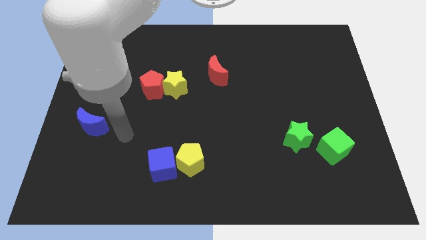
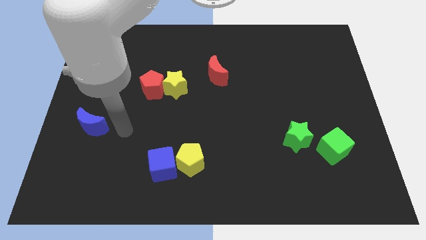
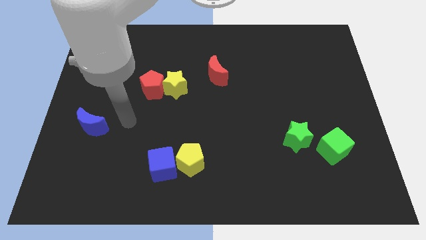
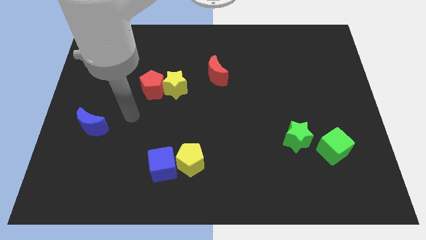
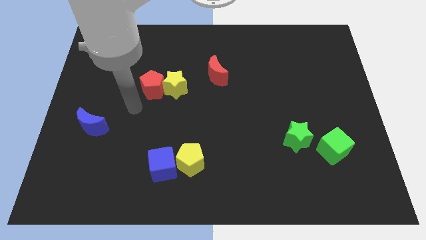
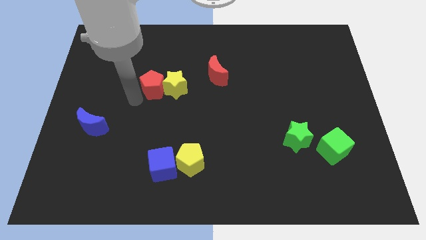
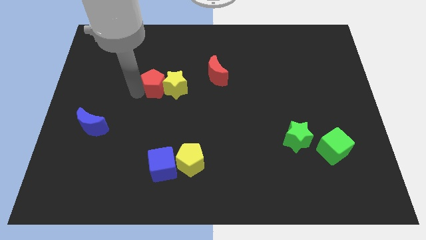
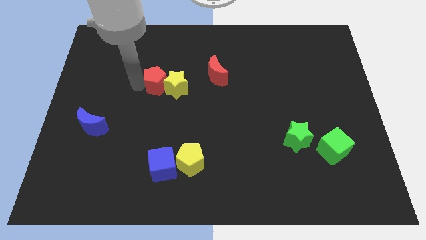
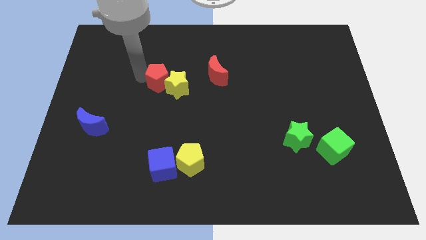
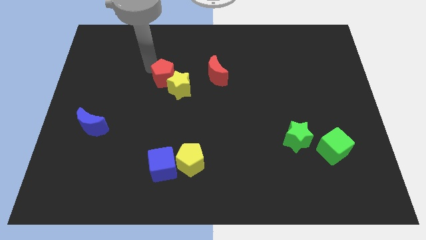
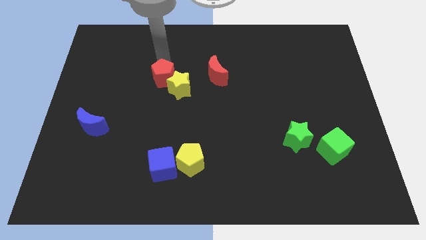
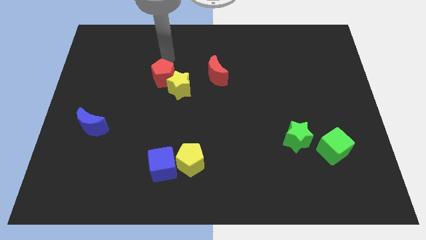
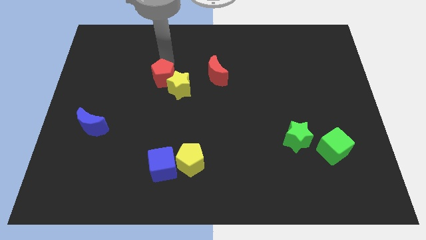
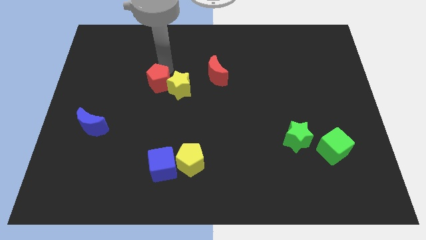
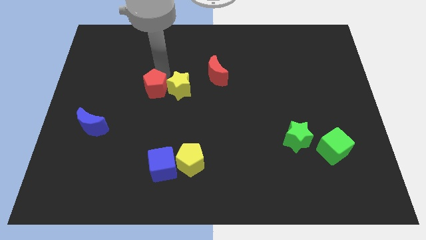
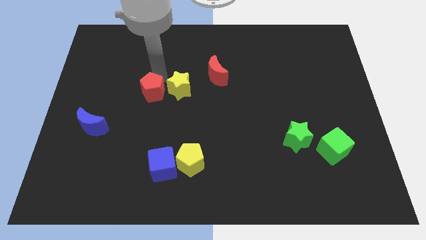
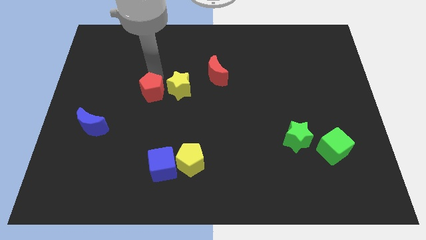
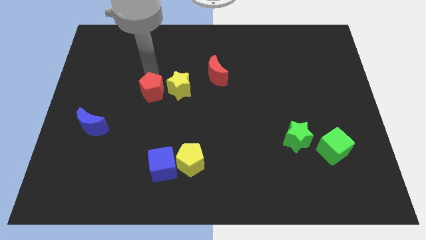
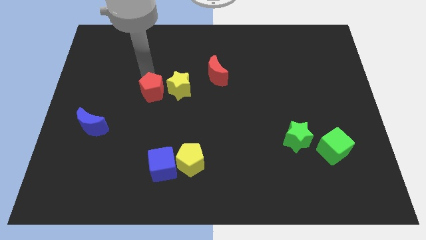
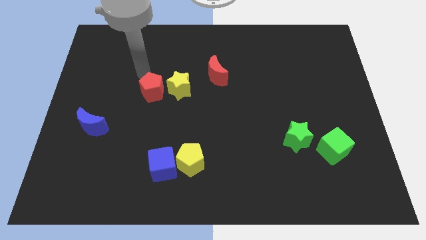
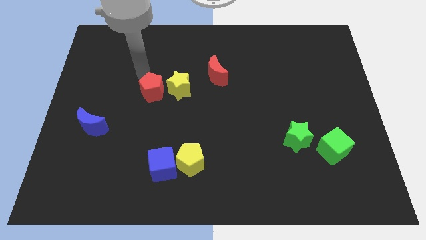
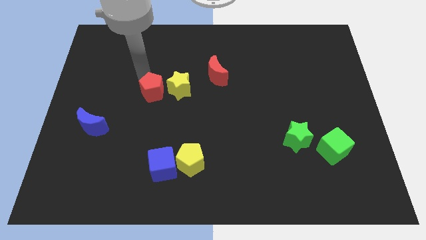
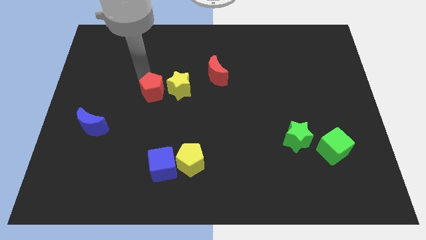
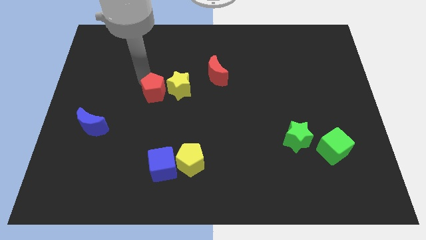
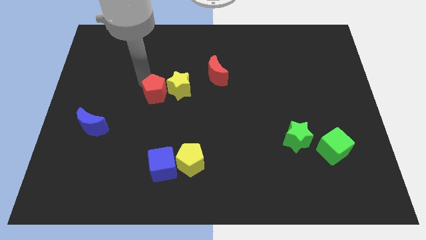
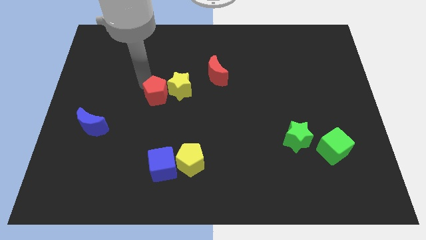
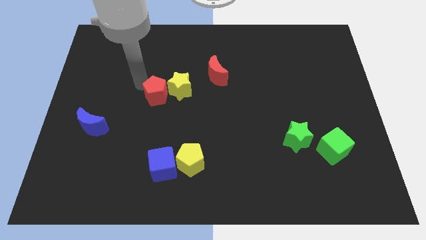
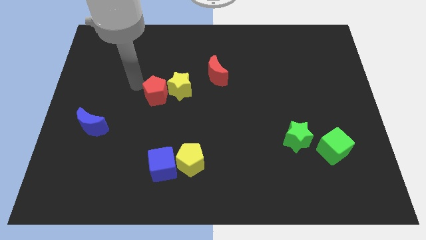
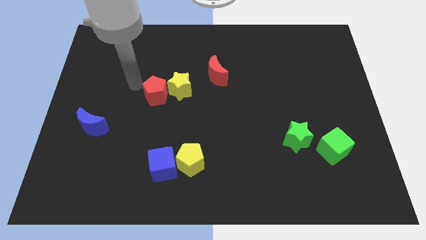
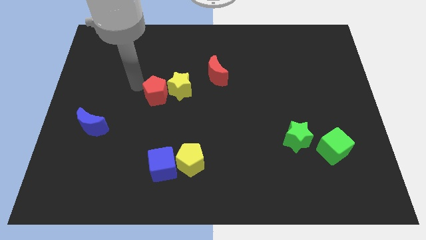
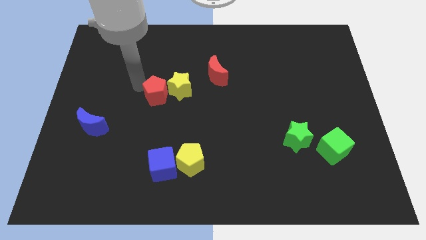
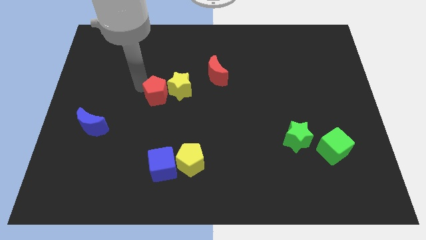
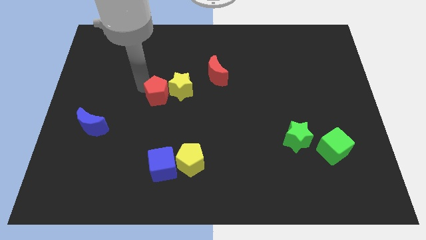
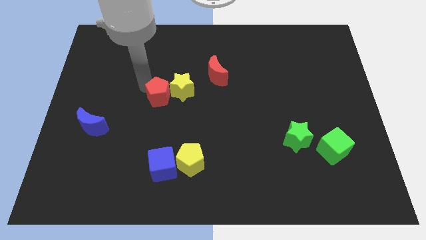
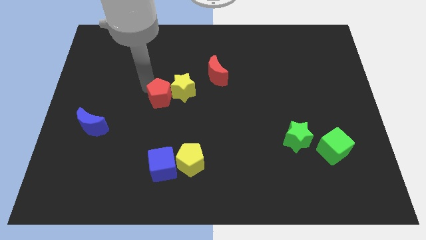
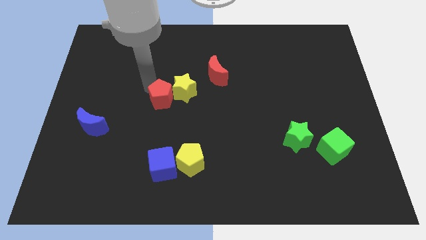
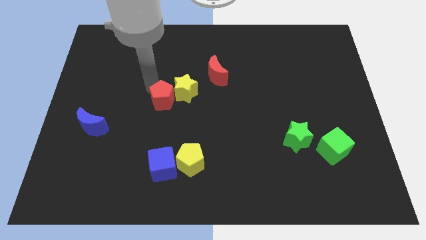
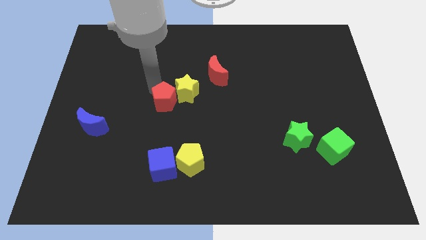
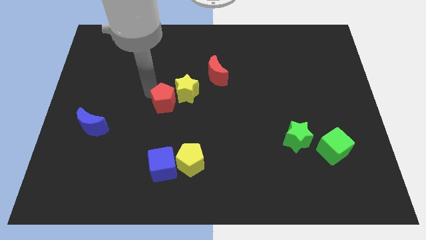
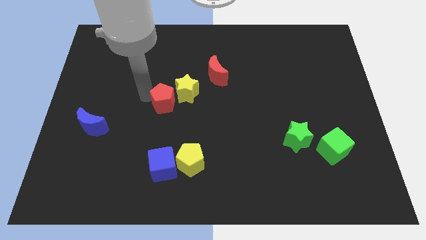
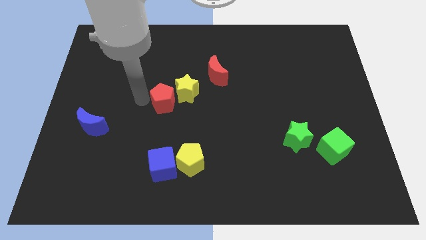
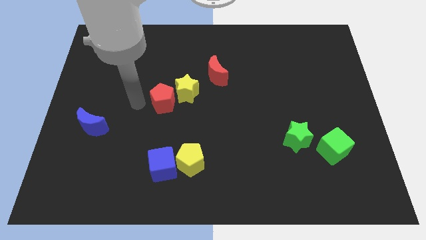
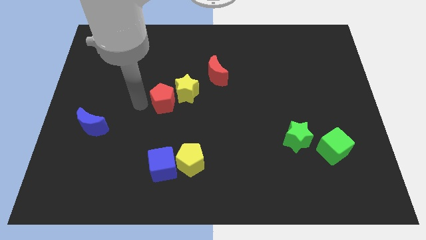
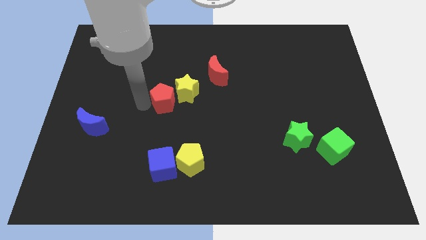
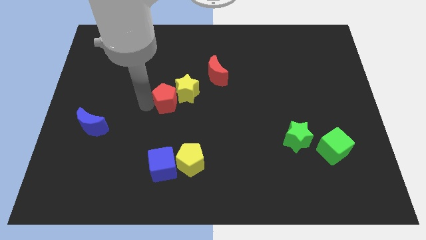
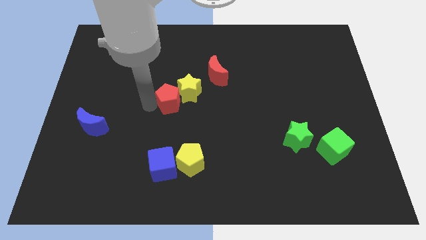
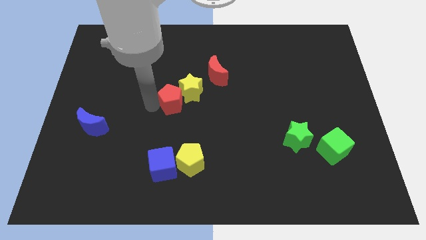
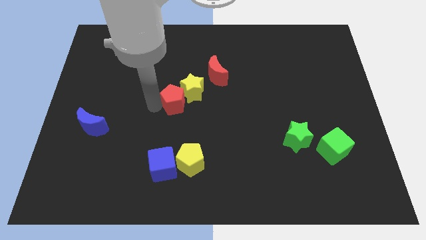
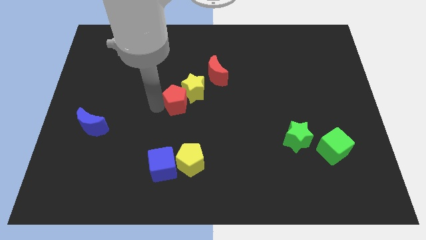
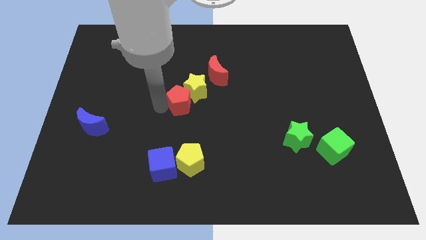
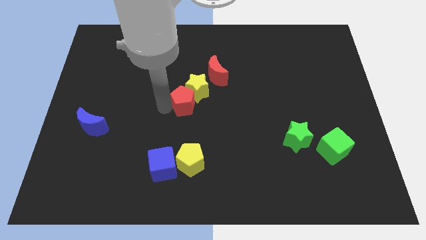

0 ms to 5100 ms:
push the red pentagon a little to the right

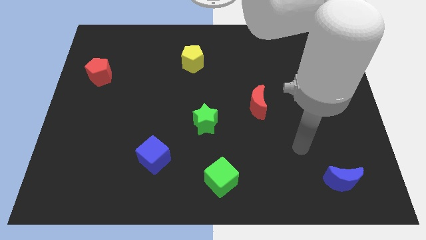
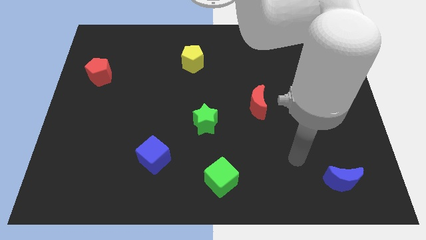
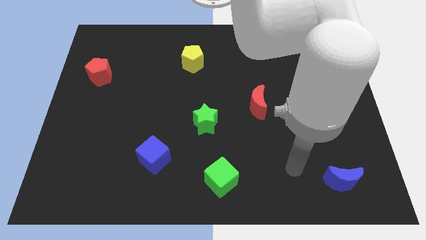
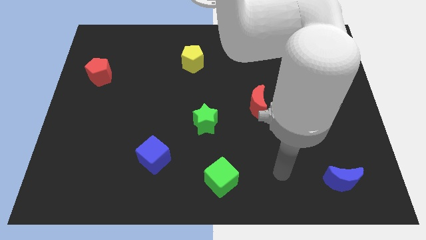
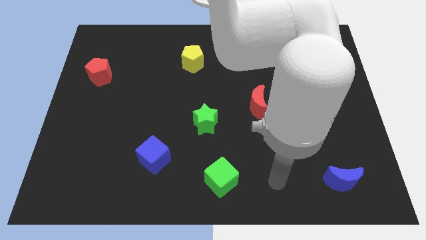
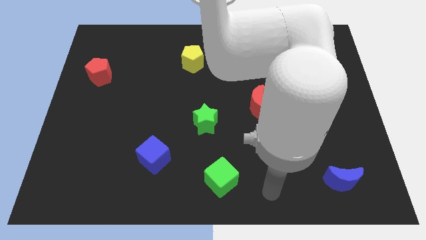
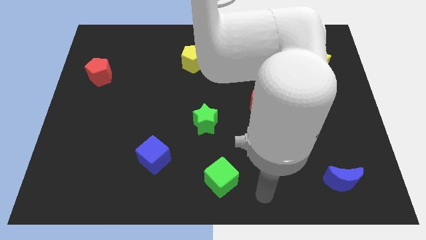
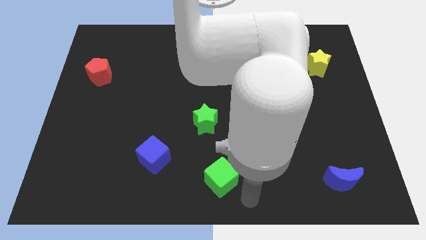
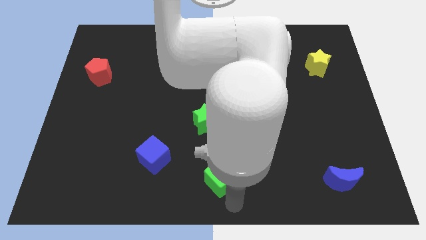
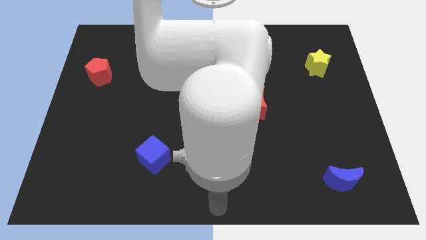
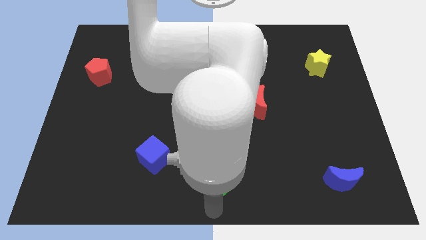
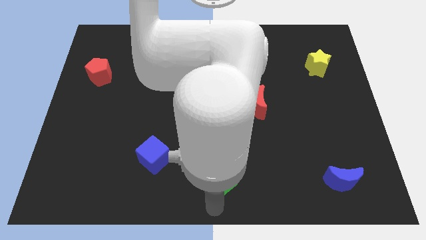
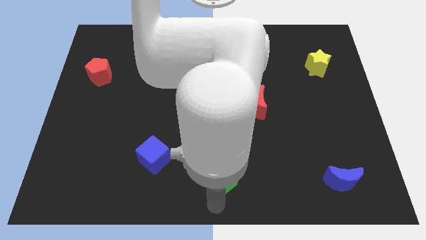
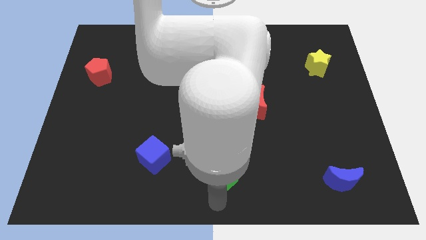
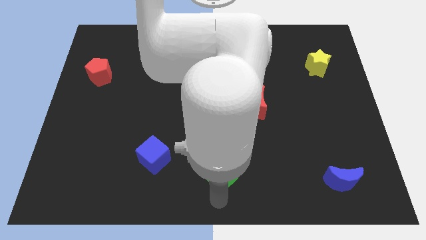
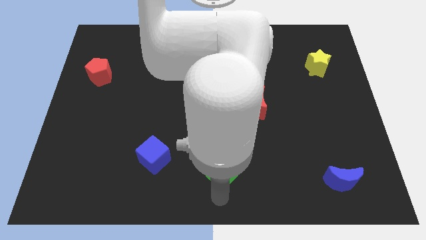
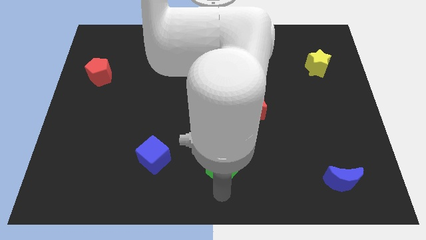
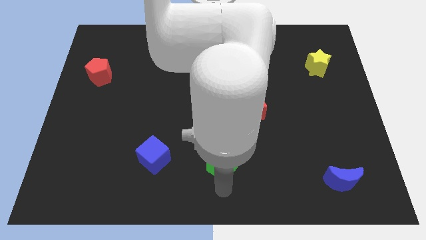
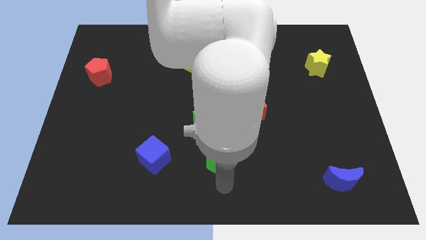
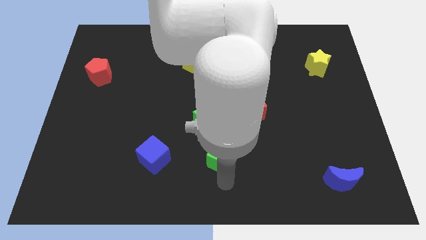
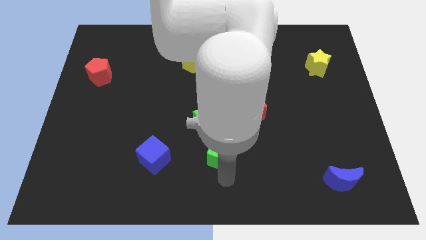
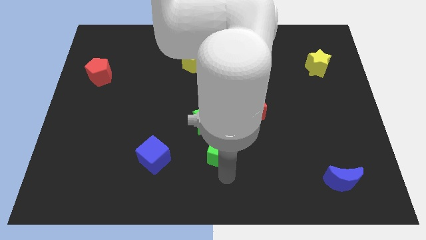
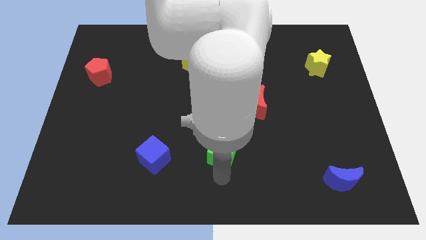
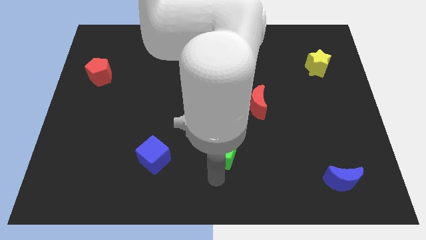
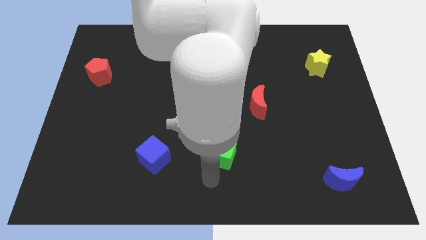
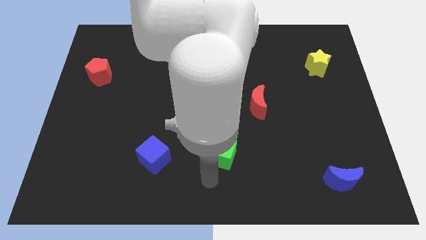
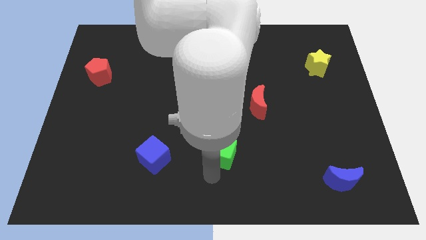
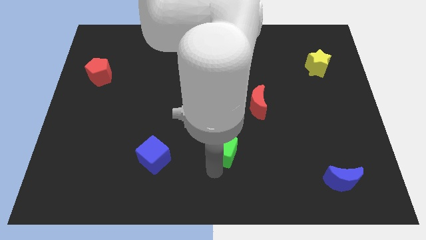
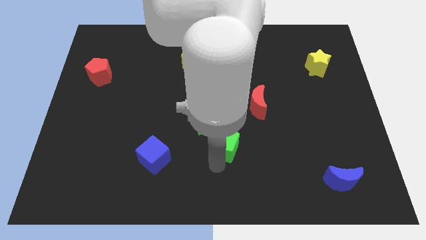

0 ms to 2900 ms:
move the green cube a bit up
